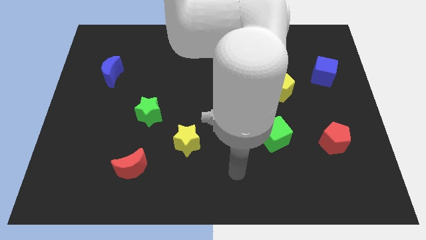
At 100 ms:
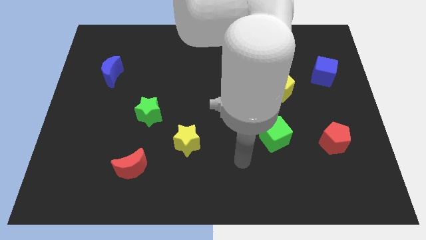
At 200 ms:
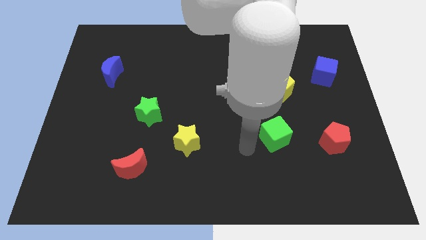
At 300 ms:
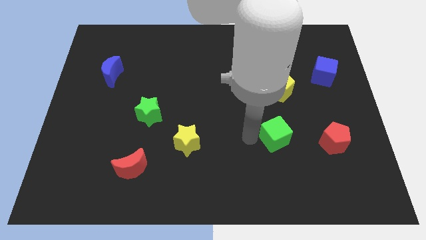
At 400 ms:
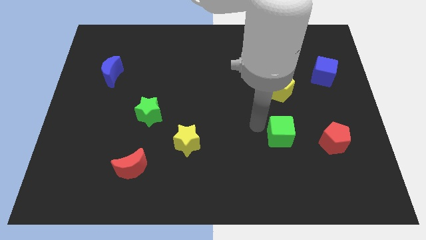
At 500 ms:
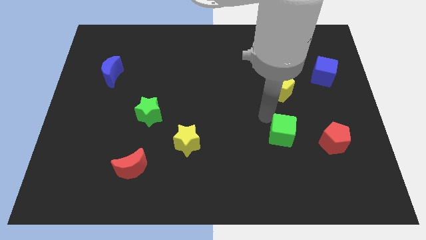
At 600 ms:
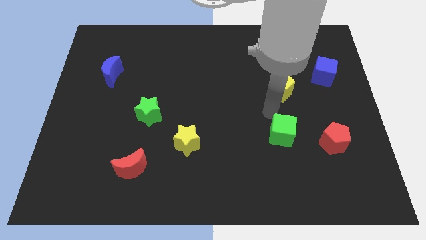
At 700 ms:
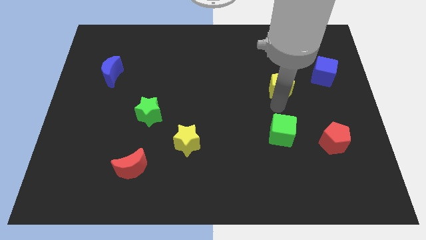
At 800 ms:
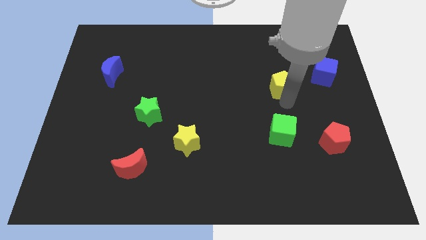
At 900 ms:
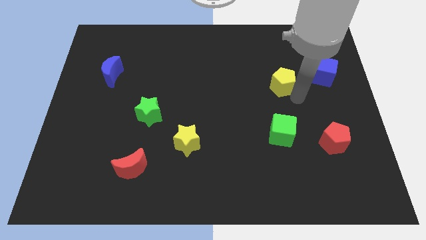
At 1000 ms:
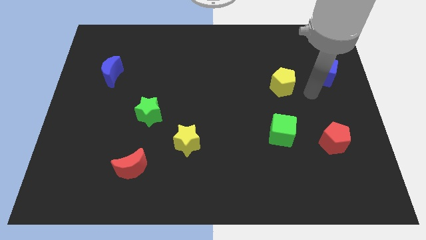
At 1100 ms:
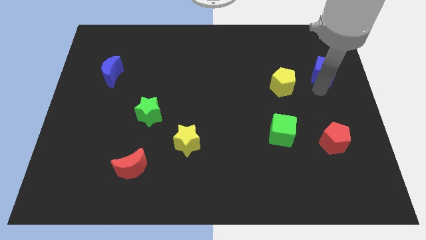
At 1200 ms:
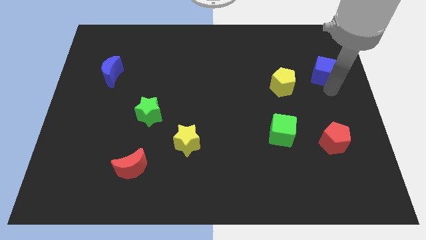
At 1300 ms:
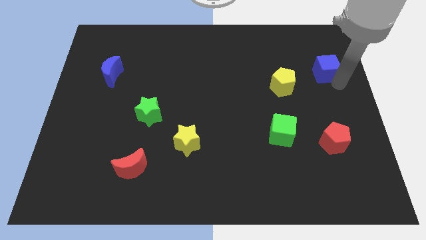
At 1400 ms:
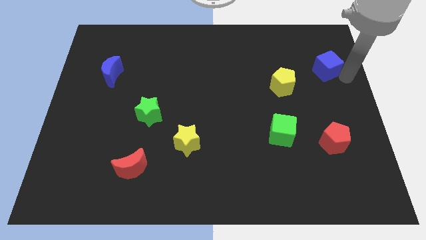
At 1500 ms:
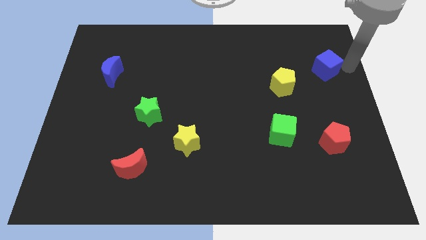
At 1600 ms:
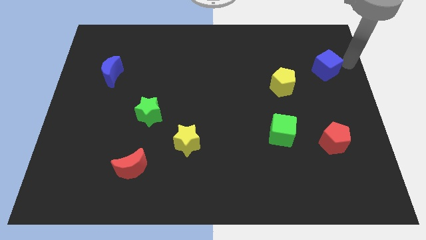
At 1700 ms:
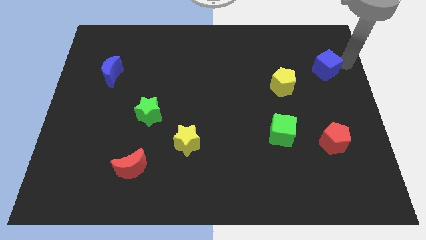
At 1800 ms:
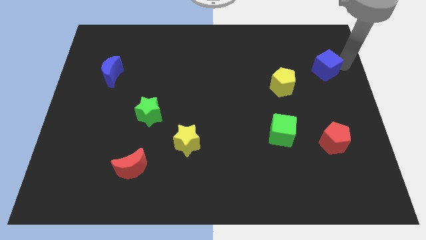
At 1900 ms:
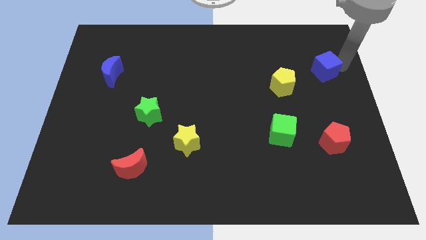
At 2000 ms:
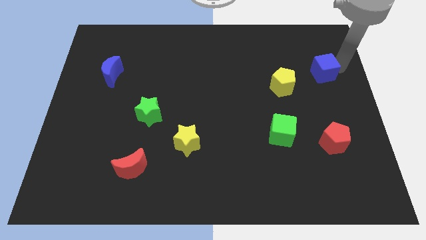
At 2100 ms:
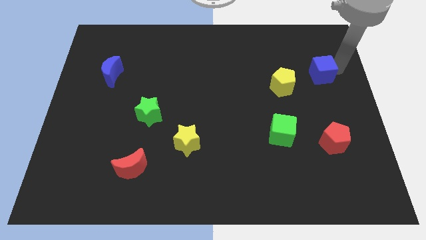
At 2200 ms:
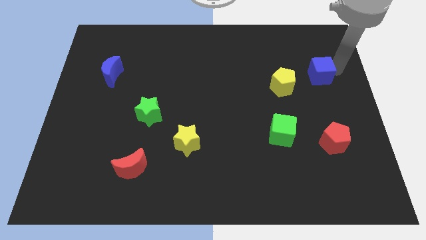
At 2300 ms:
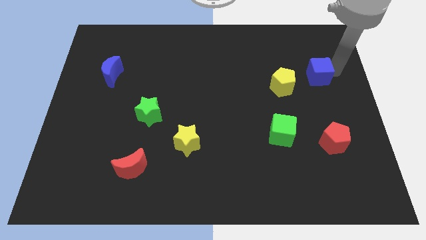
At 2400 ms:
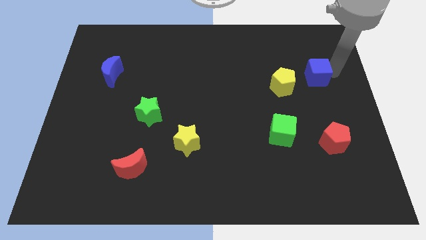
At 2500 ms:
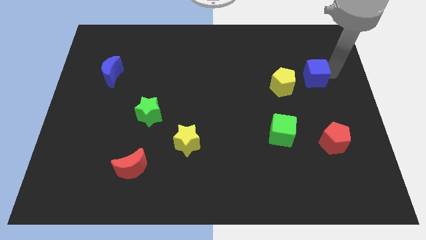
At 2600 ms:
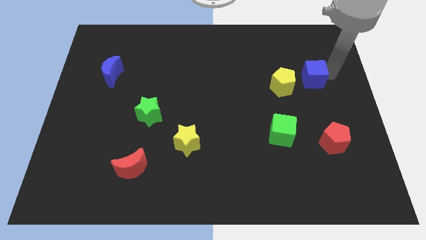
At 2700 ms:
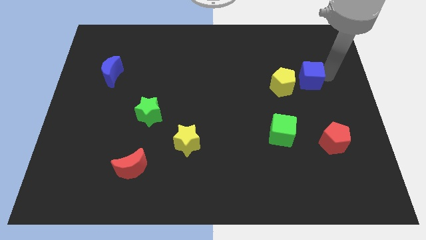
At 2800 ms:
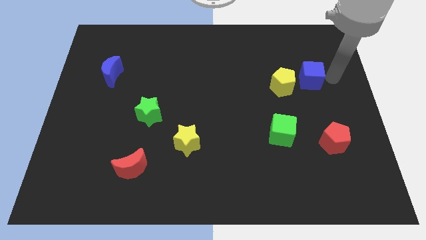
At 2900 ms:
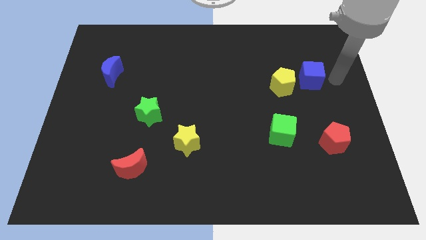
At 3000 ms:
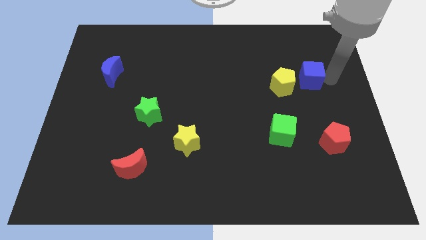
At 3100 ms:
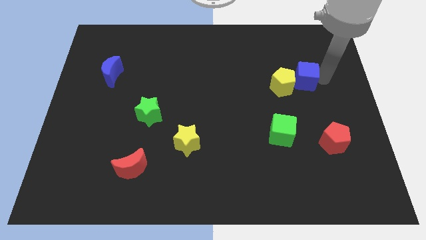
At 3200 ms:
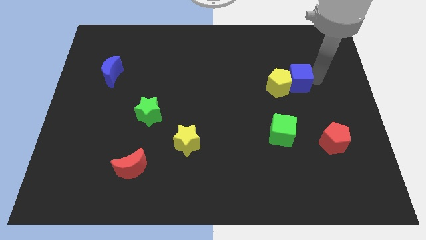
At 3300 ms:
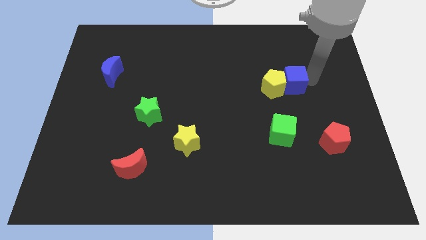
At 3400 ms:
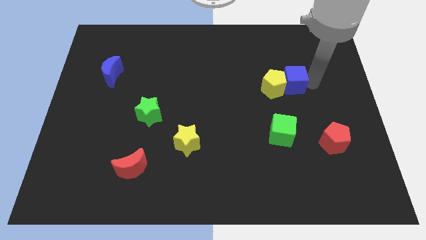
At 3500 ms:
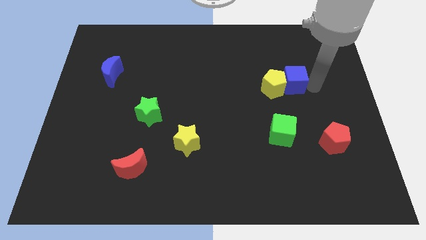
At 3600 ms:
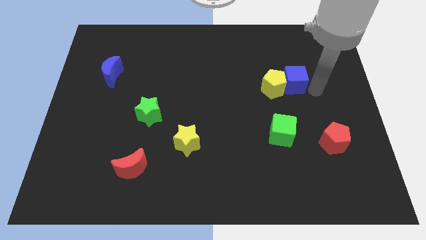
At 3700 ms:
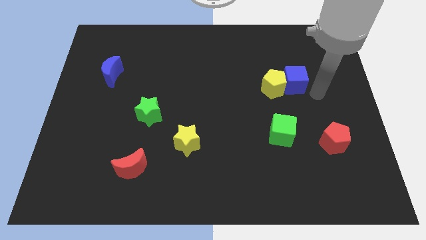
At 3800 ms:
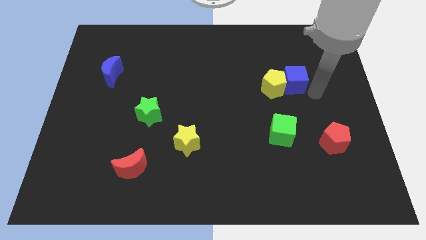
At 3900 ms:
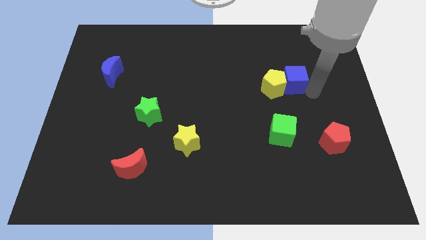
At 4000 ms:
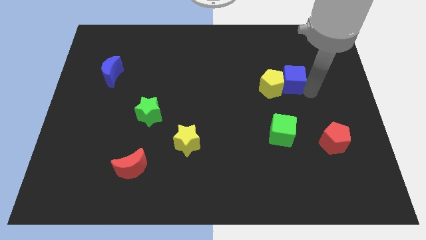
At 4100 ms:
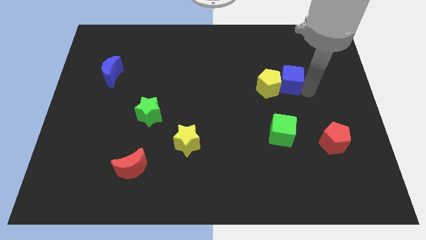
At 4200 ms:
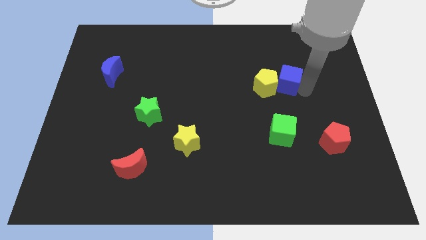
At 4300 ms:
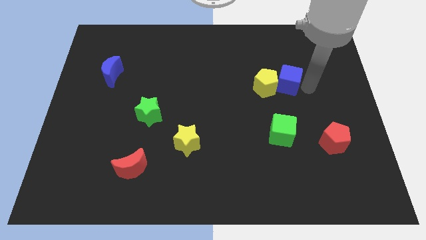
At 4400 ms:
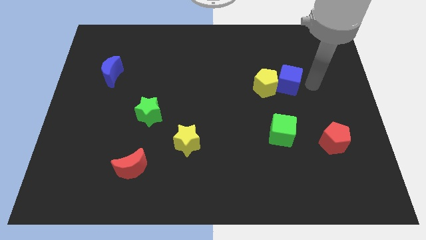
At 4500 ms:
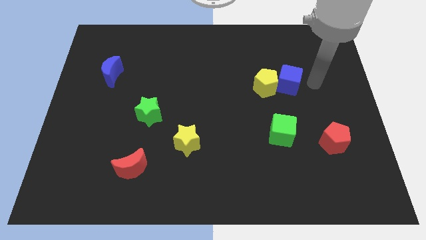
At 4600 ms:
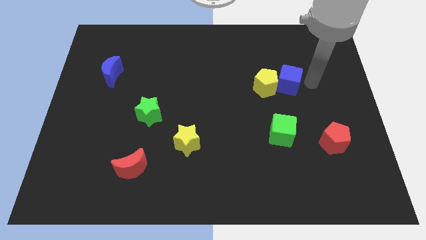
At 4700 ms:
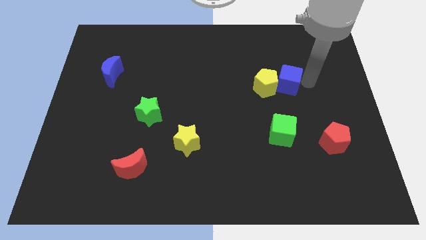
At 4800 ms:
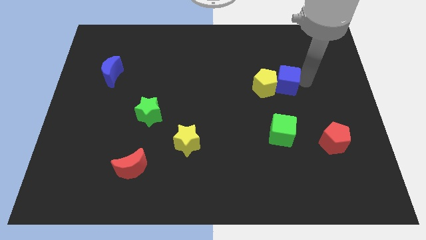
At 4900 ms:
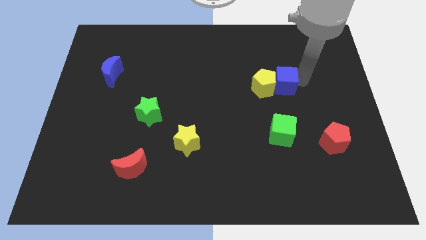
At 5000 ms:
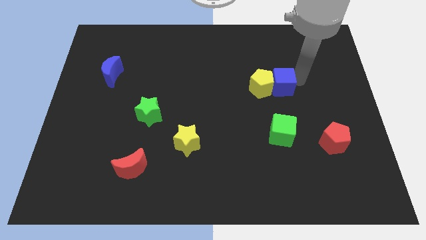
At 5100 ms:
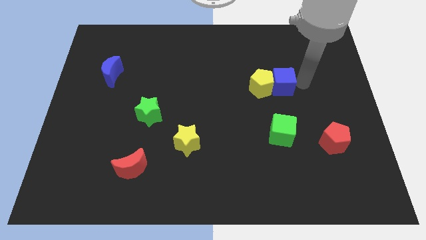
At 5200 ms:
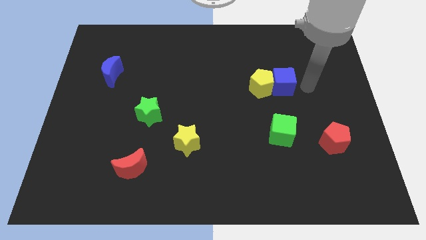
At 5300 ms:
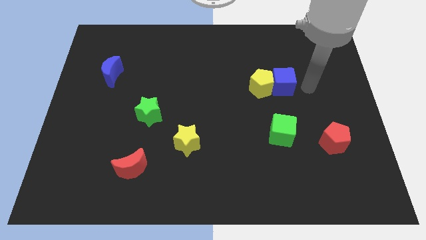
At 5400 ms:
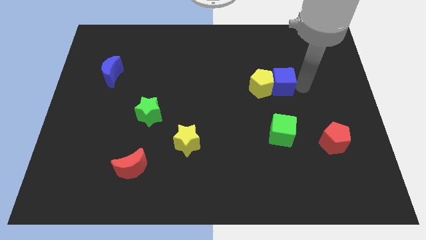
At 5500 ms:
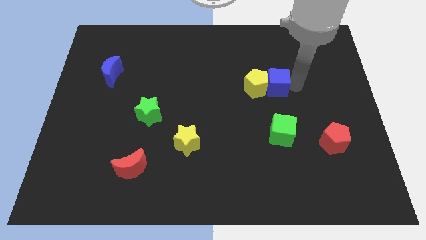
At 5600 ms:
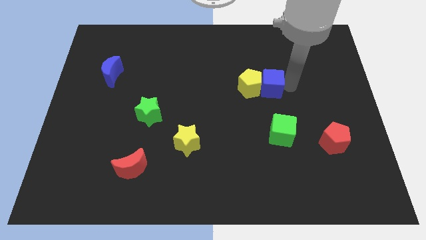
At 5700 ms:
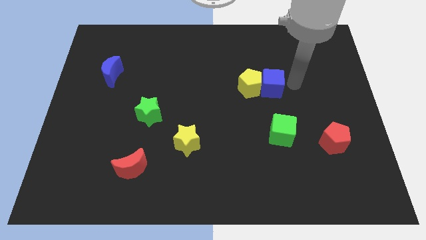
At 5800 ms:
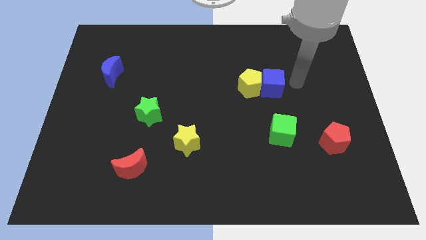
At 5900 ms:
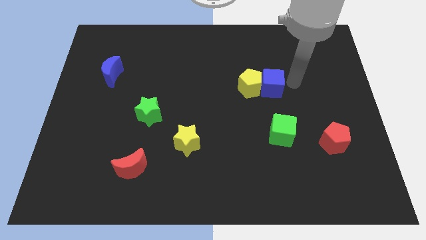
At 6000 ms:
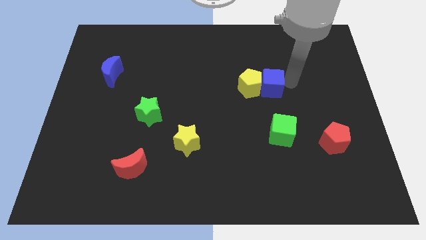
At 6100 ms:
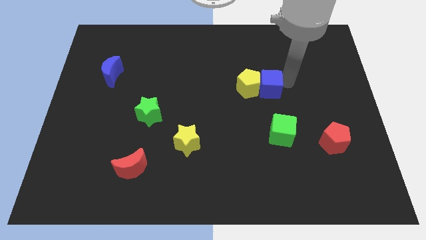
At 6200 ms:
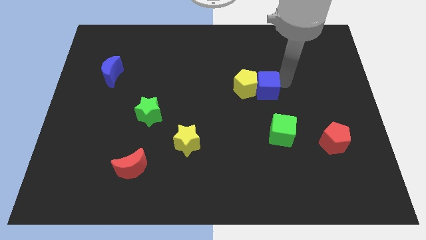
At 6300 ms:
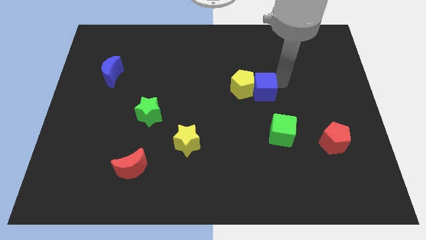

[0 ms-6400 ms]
slide the blue cube to the center
